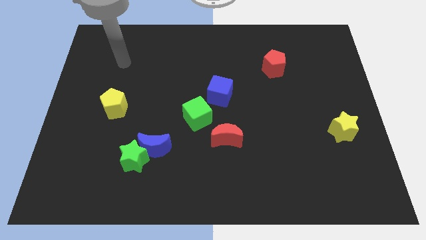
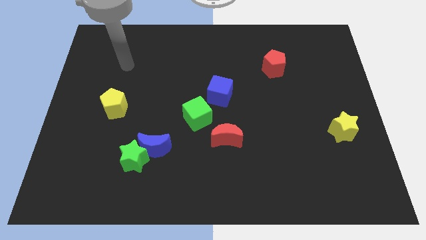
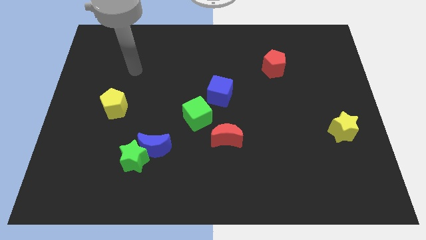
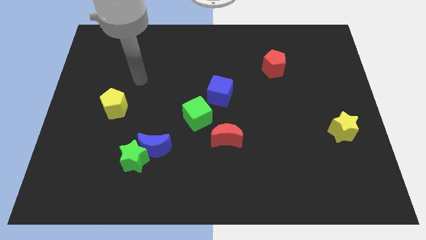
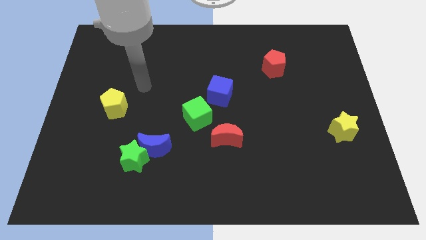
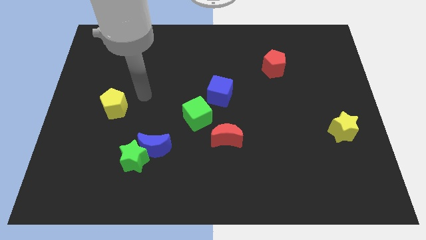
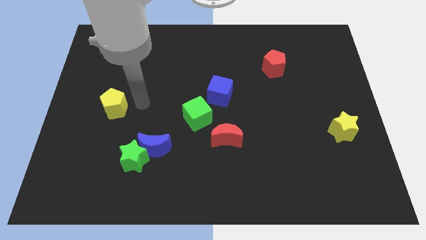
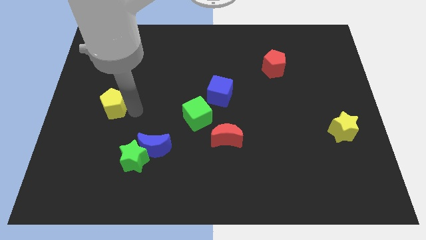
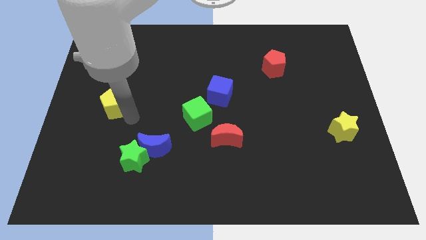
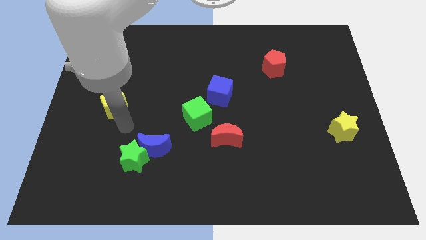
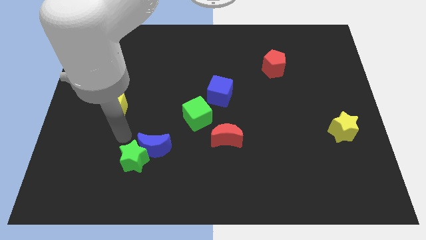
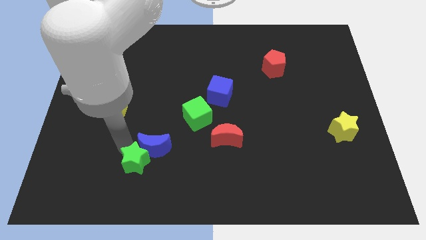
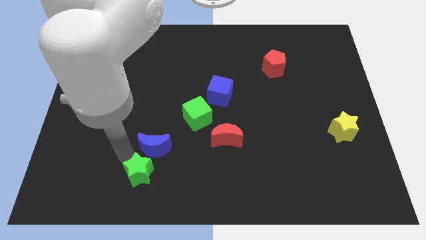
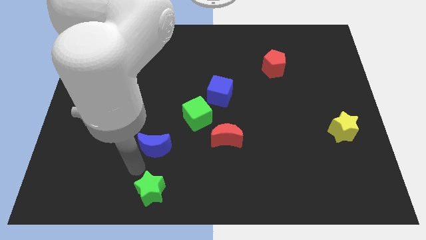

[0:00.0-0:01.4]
move the blue moon away from the green star

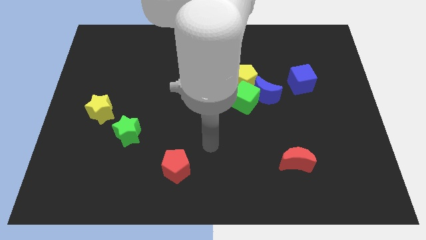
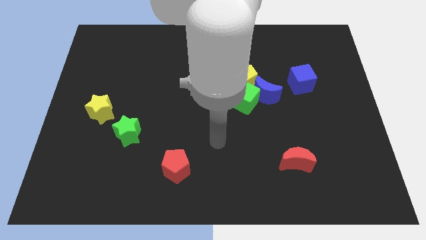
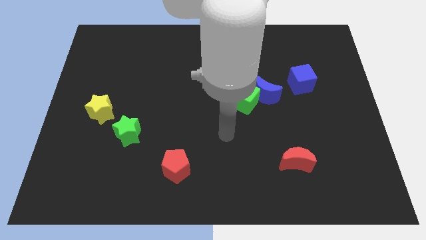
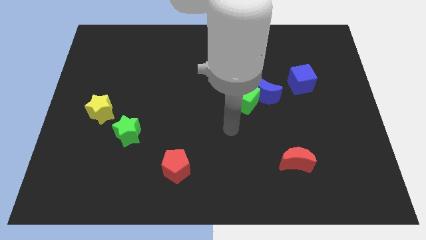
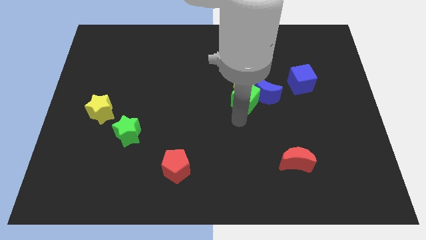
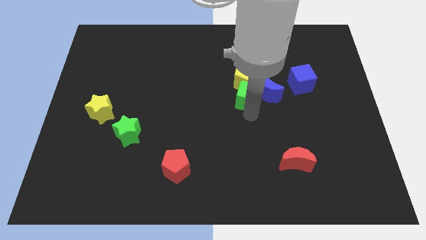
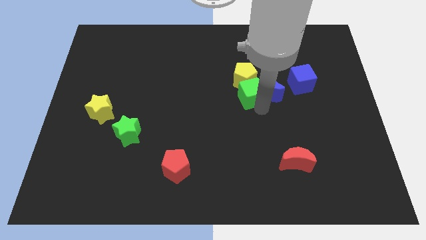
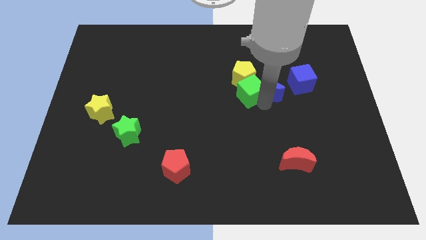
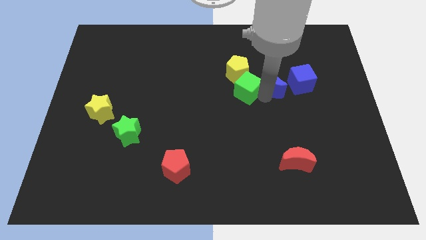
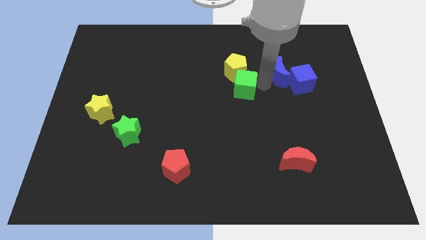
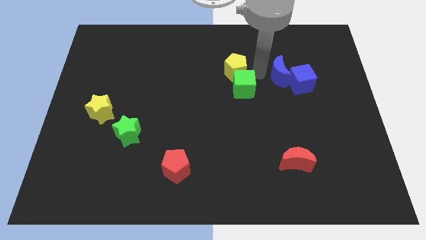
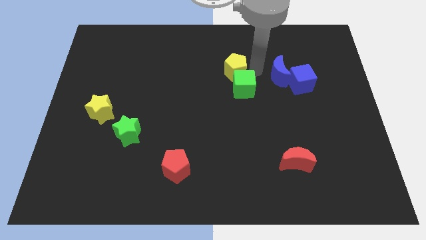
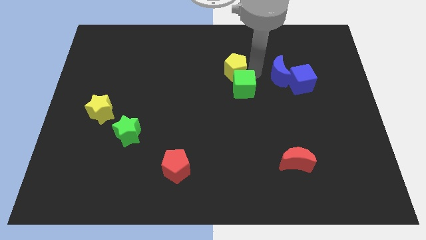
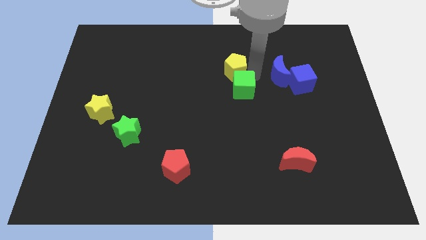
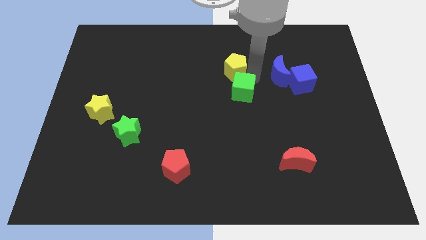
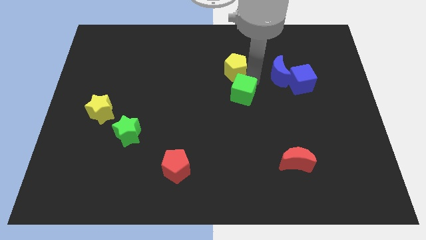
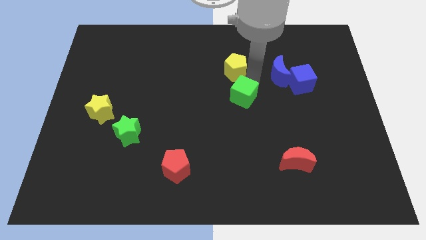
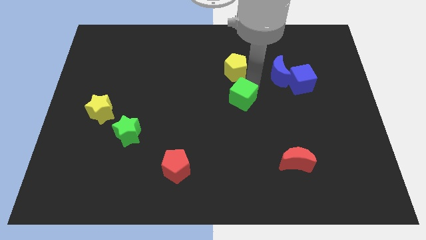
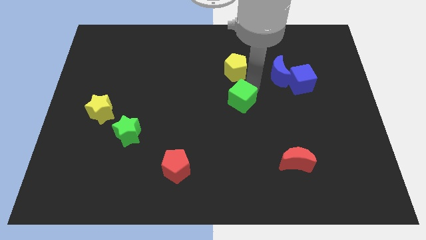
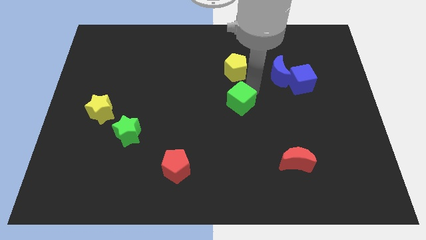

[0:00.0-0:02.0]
move the green cube away from the blue moon and yellow pentagon

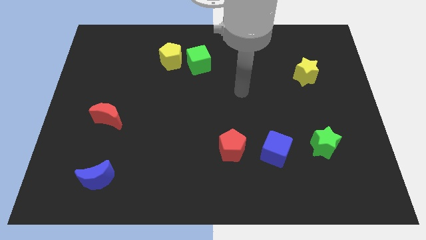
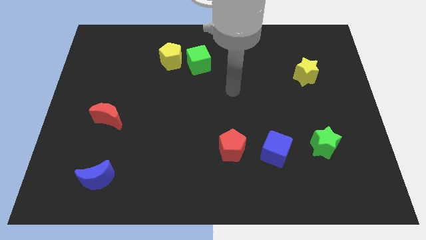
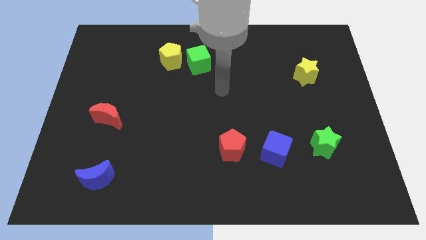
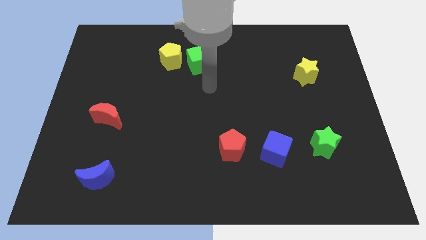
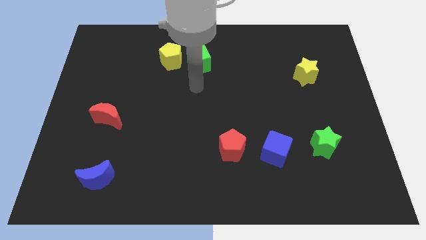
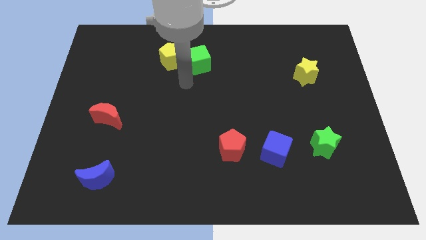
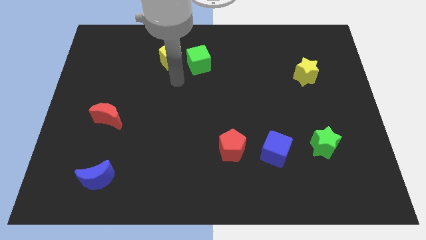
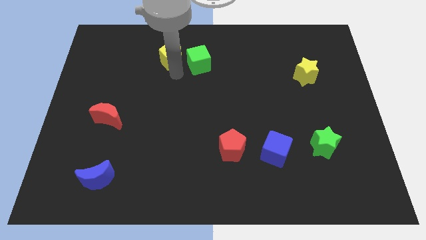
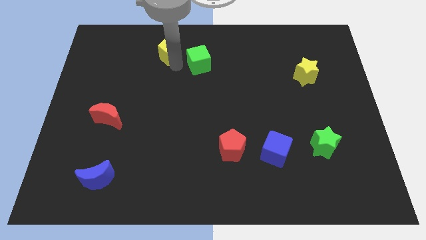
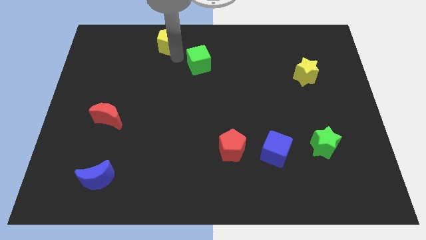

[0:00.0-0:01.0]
separate the green cube from the yellow pentagon

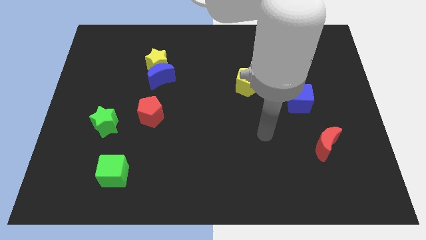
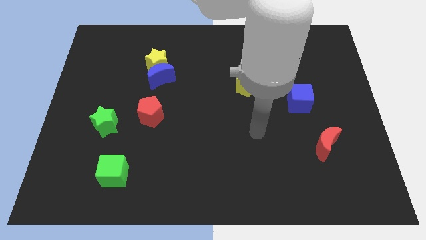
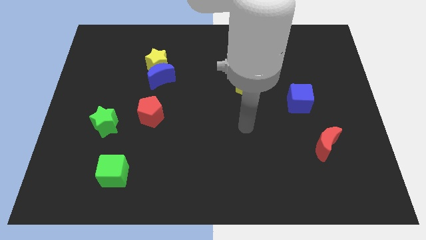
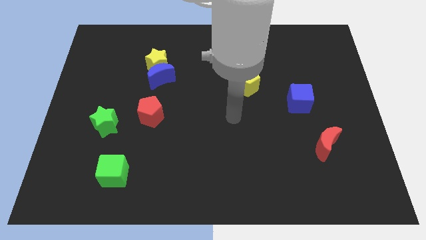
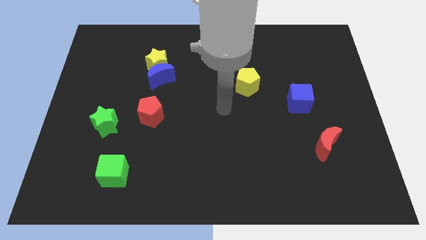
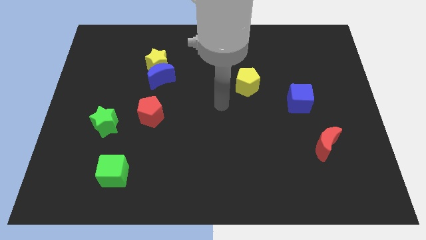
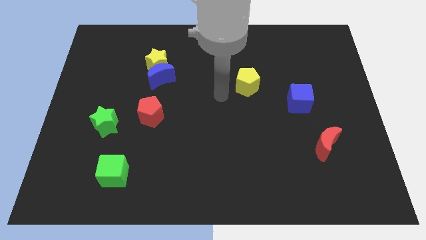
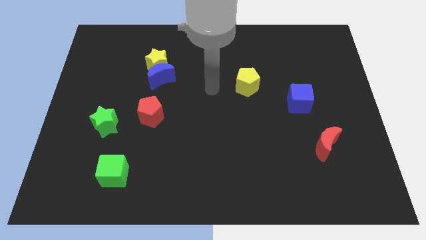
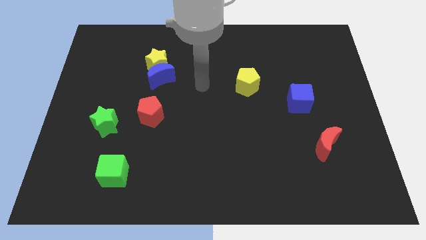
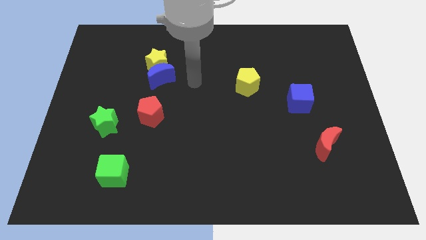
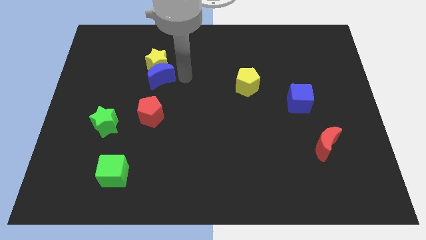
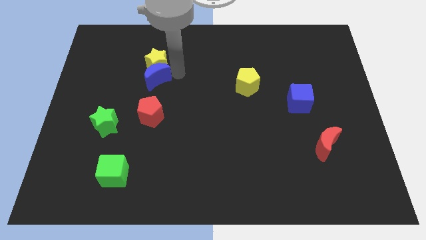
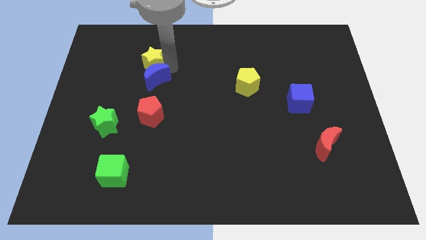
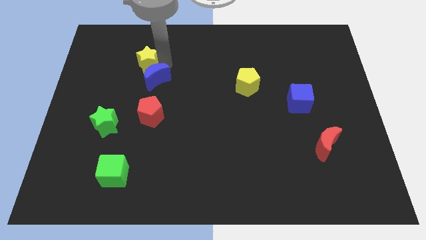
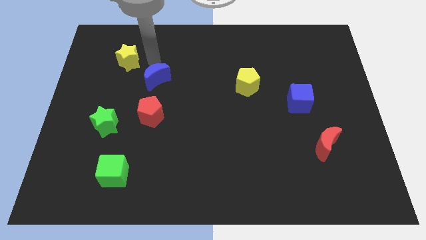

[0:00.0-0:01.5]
separate the blue moon from the yellow star

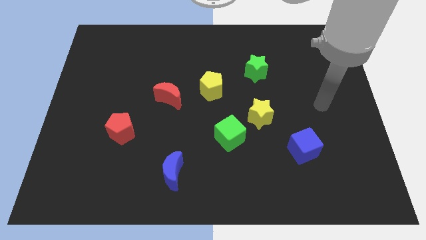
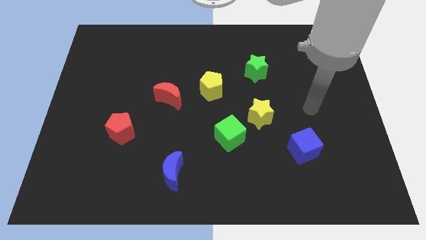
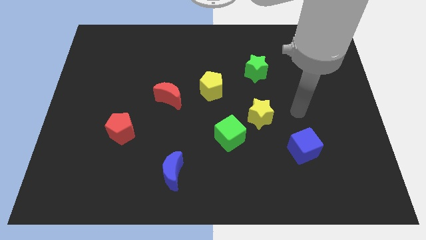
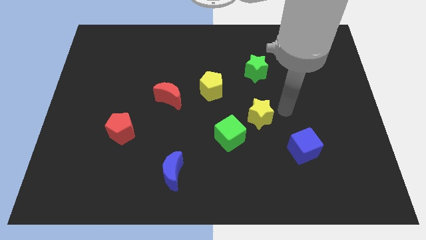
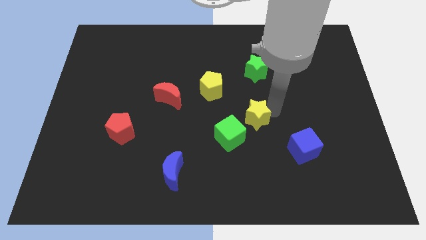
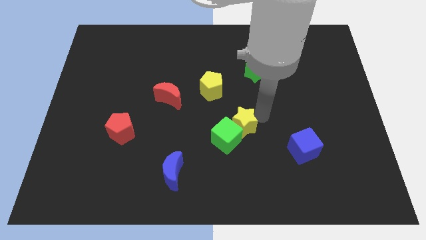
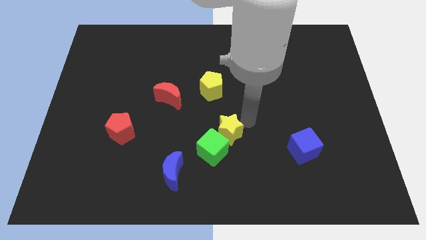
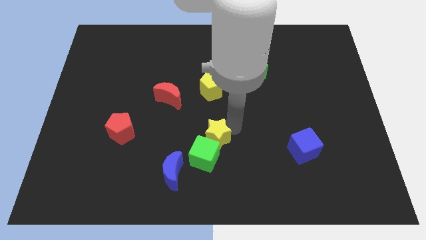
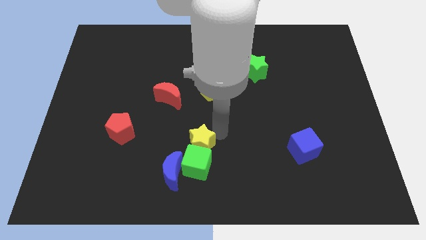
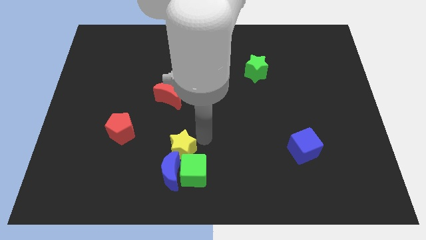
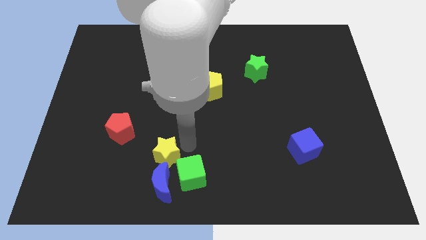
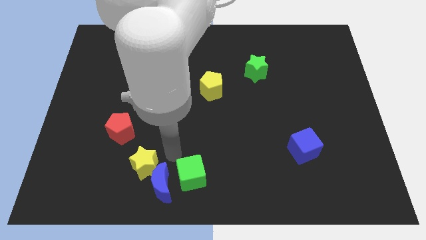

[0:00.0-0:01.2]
pull the green cube apart from the yellow star

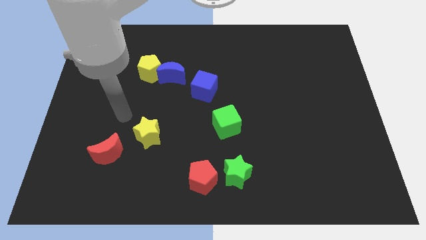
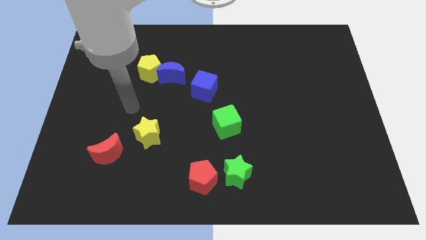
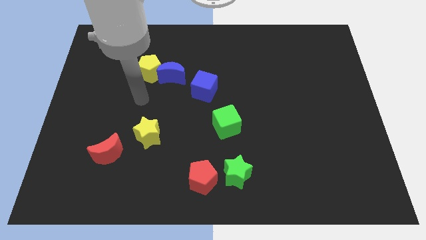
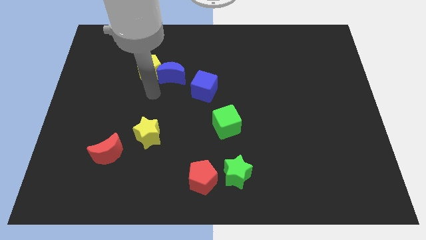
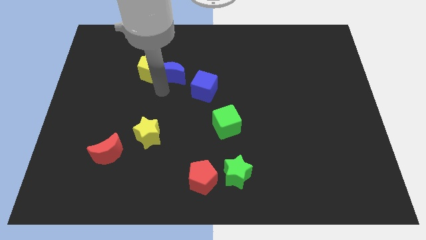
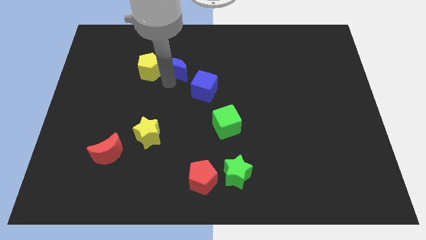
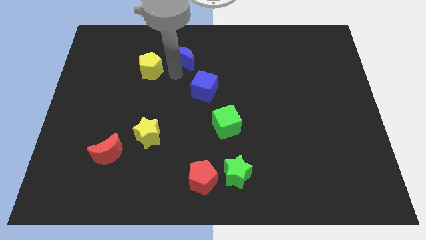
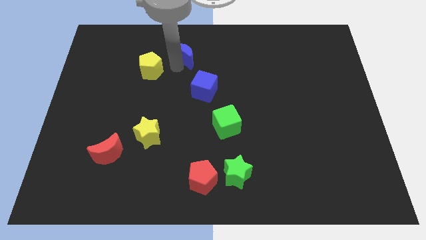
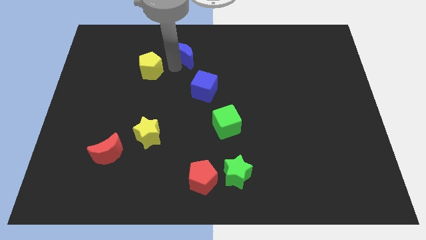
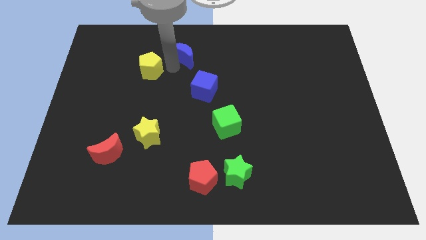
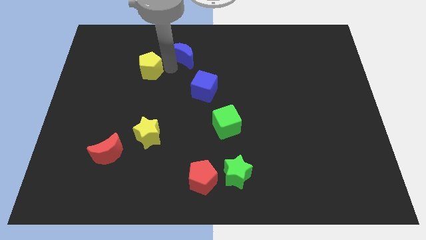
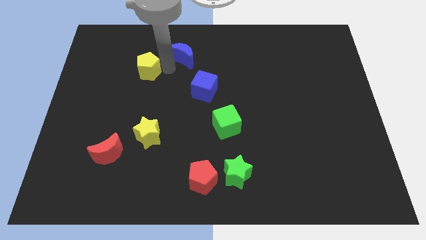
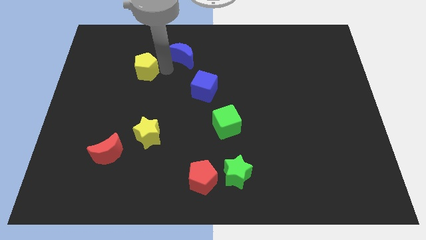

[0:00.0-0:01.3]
move the yellow pentagon away from the blue moon

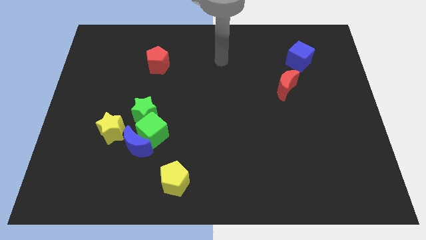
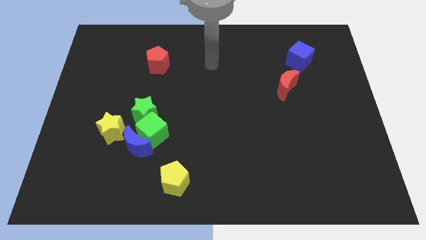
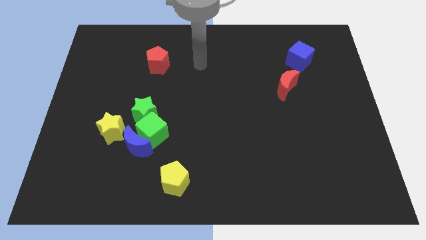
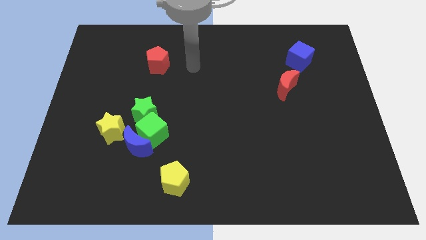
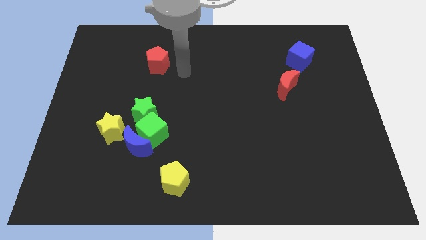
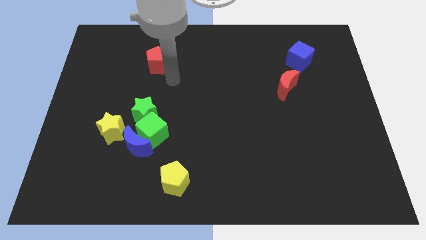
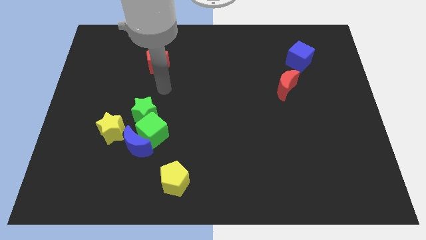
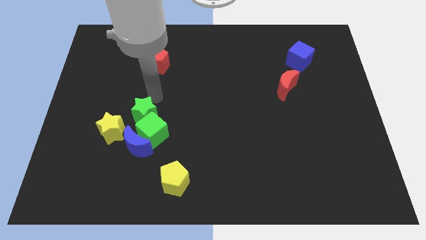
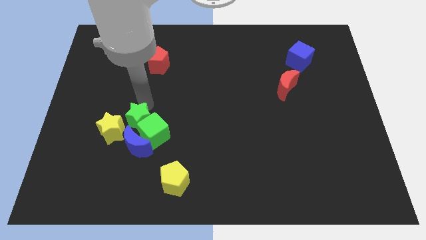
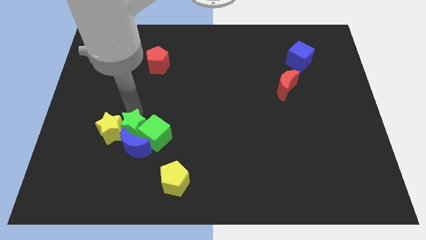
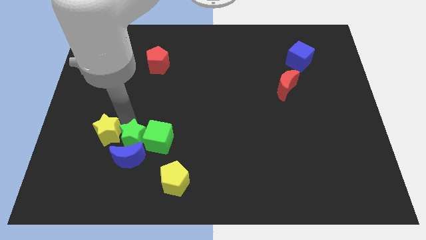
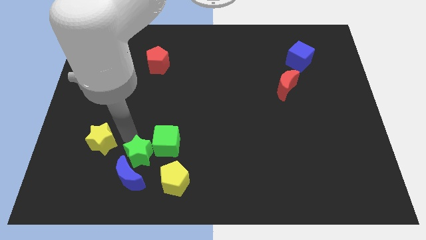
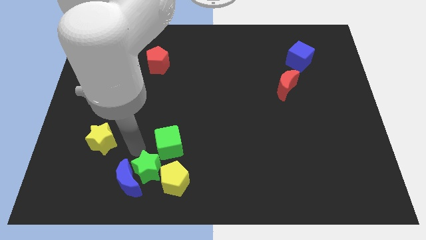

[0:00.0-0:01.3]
move the green cube away from the group
